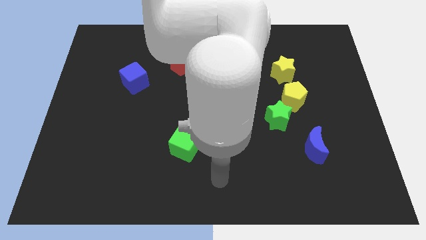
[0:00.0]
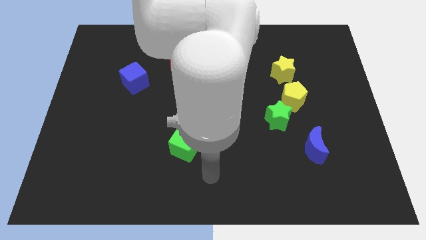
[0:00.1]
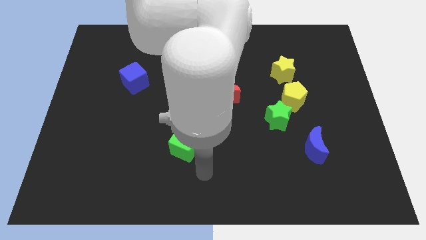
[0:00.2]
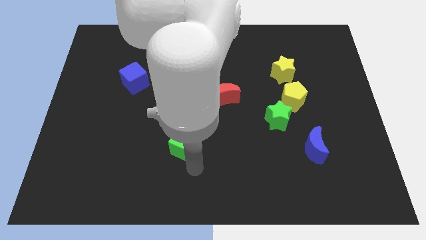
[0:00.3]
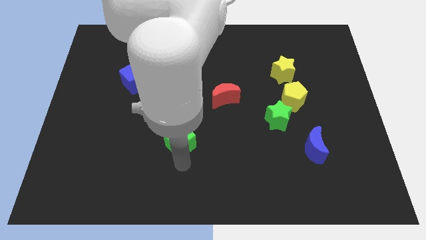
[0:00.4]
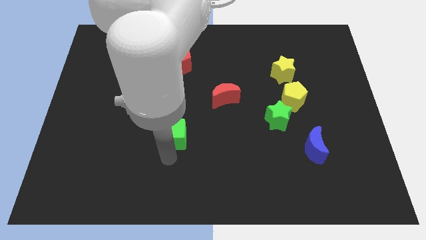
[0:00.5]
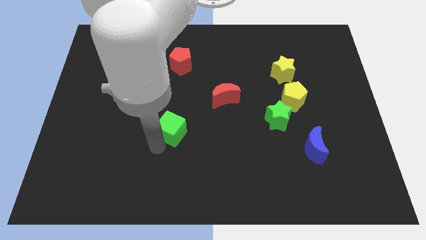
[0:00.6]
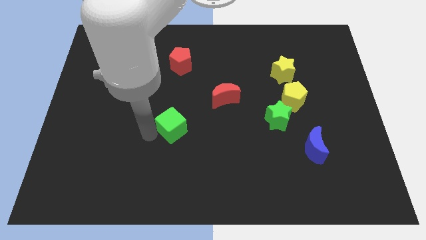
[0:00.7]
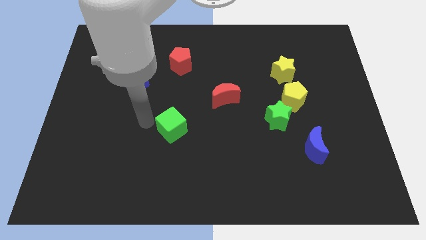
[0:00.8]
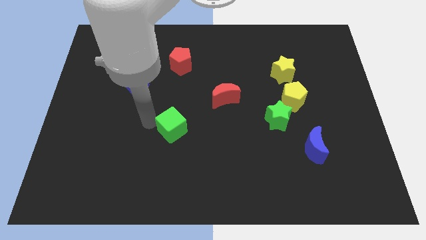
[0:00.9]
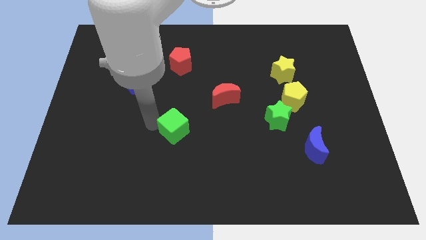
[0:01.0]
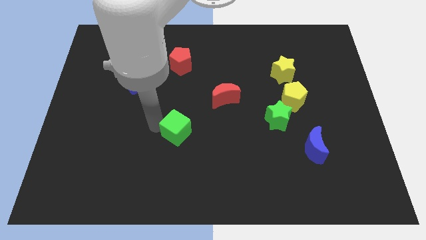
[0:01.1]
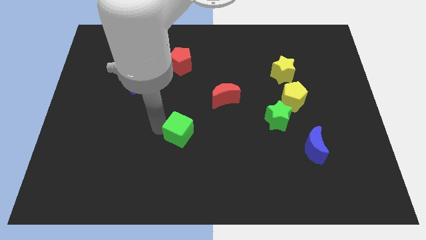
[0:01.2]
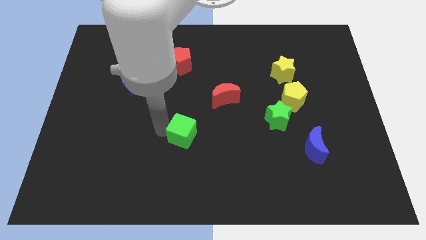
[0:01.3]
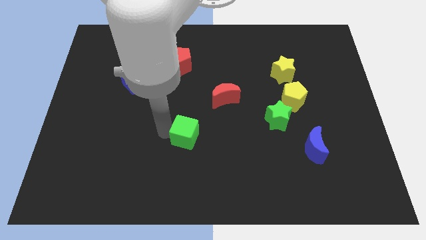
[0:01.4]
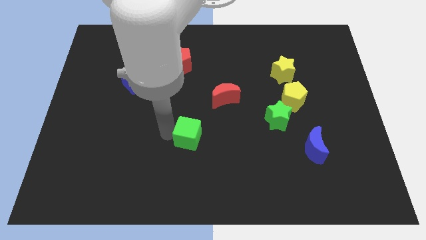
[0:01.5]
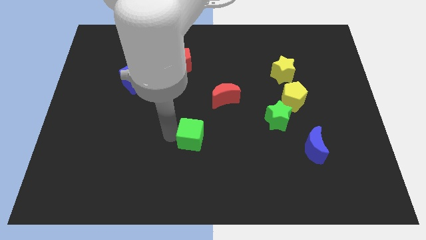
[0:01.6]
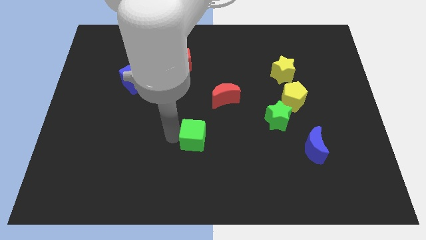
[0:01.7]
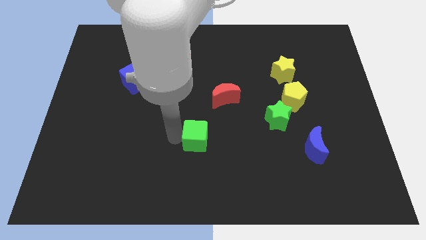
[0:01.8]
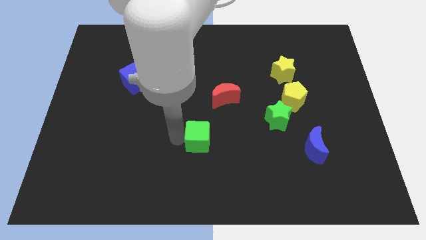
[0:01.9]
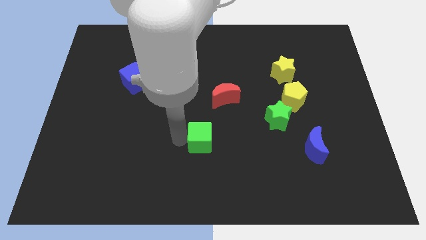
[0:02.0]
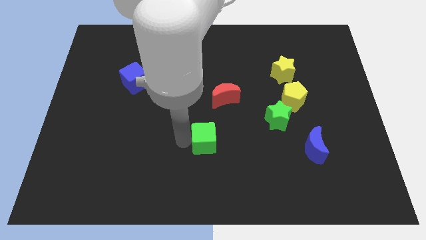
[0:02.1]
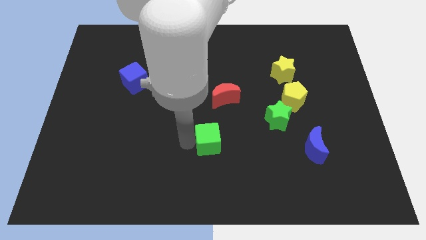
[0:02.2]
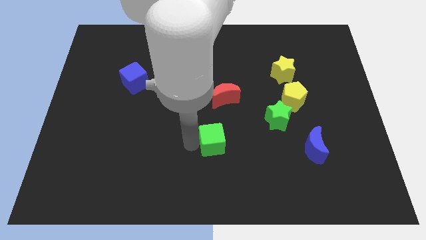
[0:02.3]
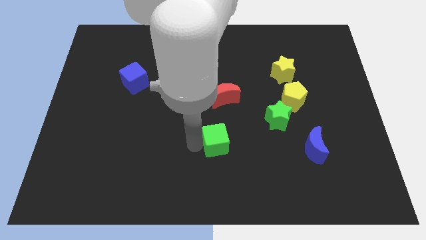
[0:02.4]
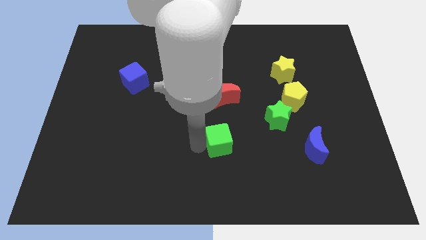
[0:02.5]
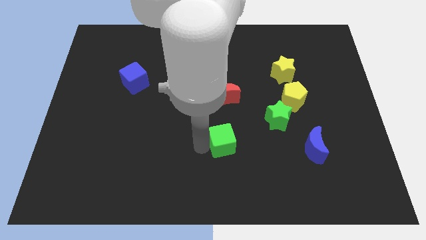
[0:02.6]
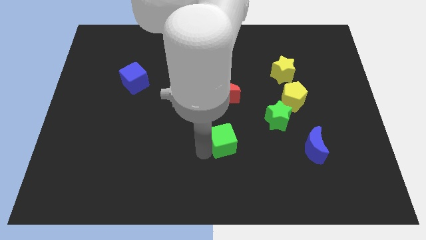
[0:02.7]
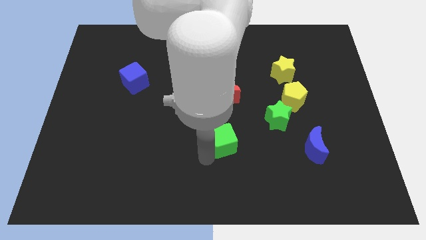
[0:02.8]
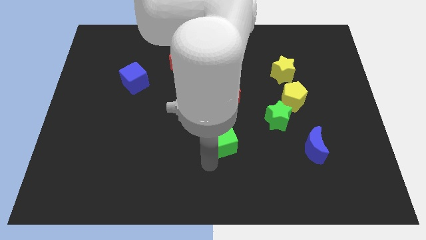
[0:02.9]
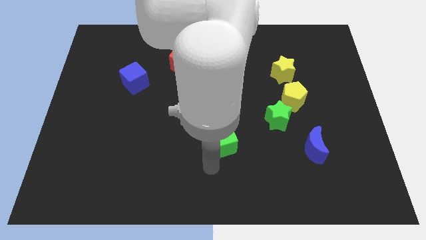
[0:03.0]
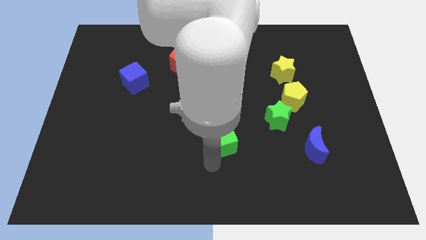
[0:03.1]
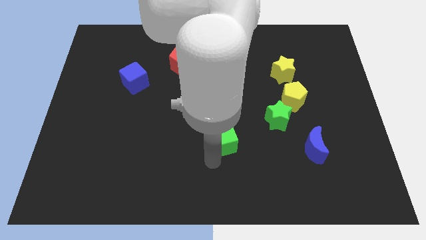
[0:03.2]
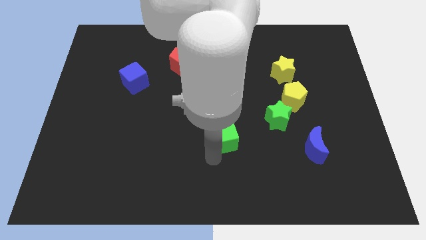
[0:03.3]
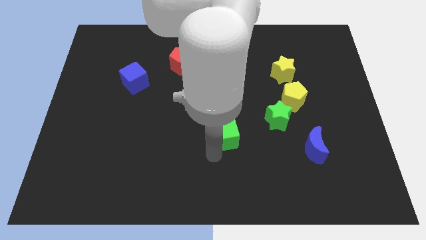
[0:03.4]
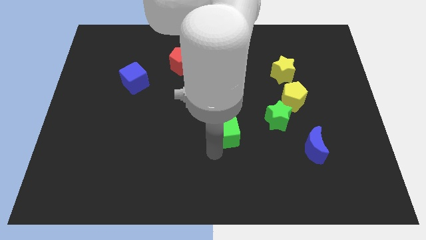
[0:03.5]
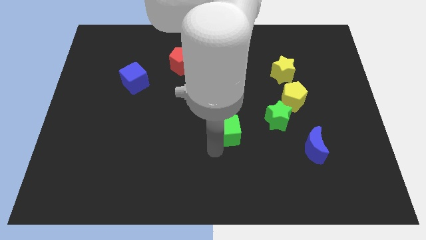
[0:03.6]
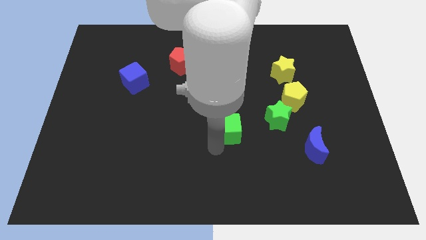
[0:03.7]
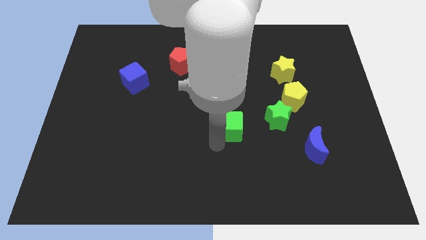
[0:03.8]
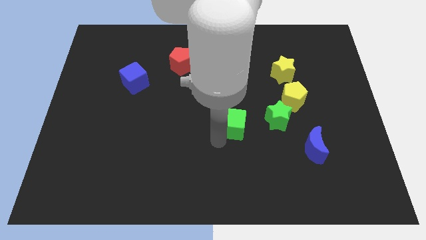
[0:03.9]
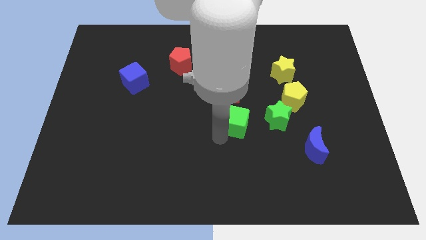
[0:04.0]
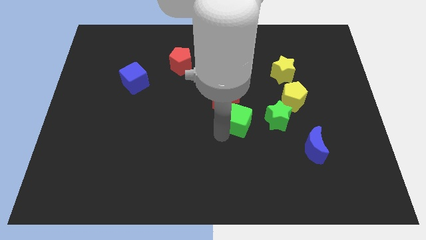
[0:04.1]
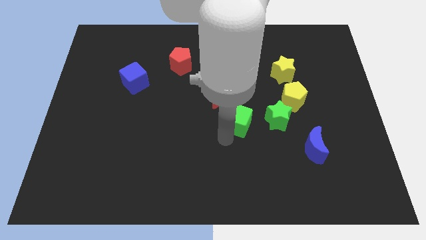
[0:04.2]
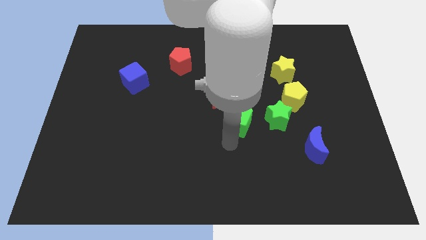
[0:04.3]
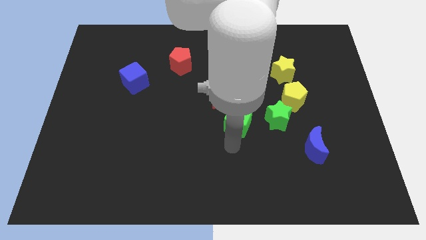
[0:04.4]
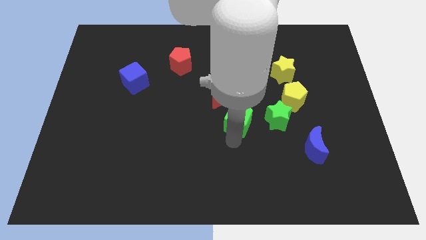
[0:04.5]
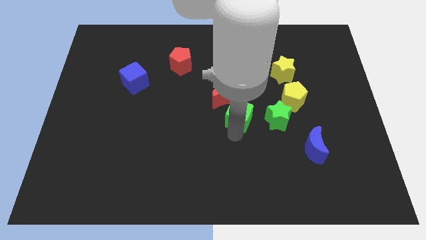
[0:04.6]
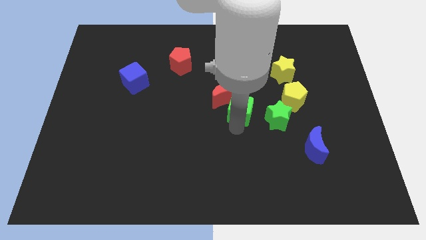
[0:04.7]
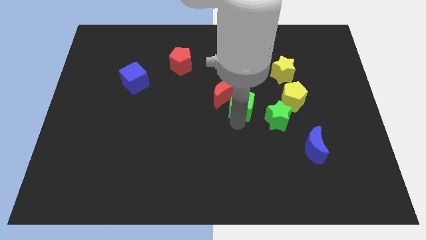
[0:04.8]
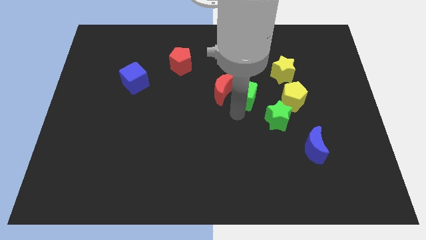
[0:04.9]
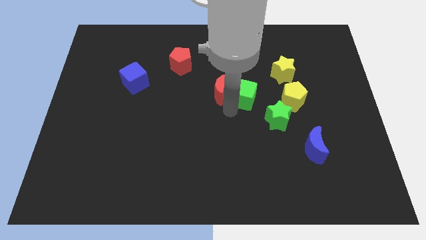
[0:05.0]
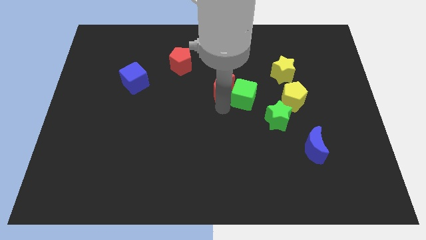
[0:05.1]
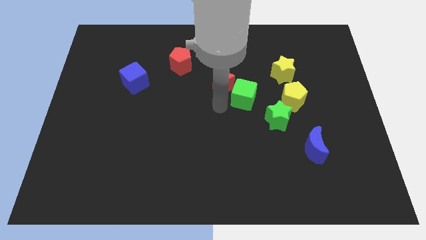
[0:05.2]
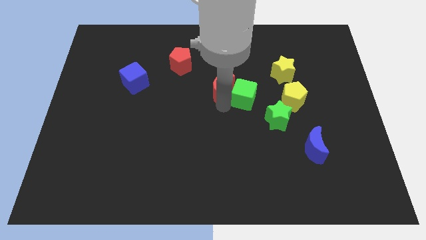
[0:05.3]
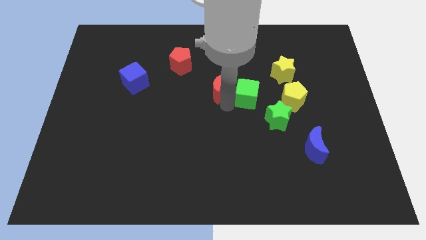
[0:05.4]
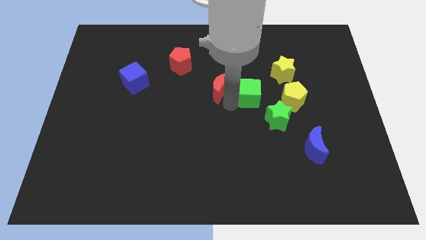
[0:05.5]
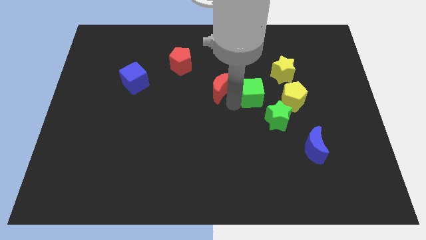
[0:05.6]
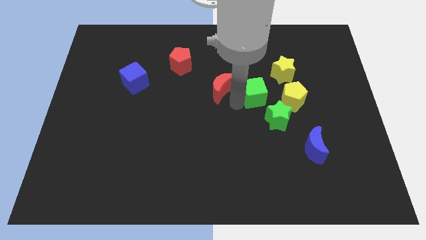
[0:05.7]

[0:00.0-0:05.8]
slide the green cube to the top of the green star

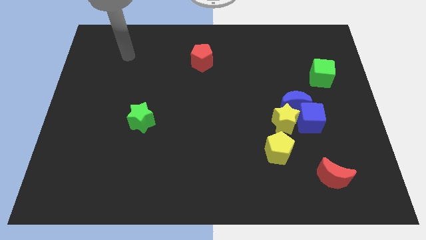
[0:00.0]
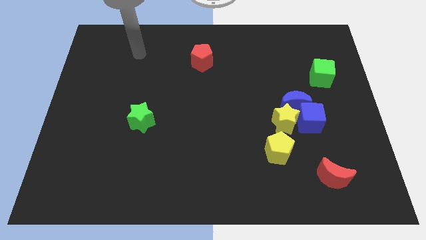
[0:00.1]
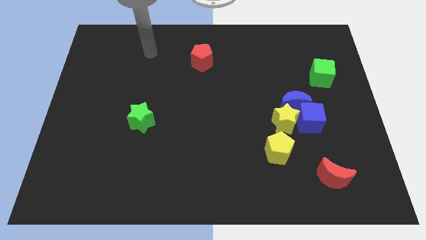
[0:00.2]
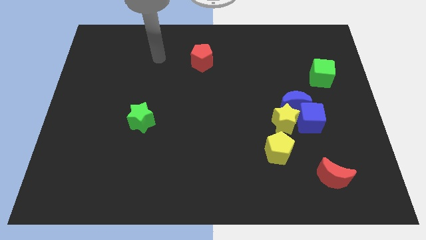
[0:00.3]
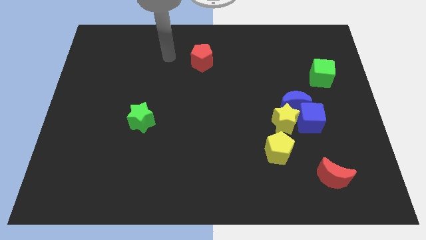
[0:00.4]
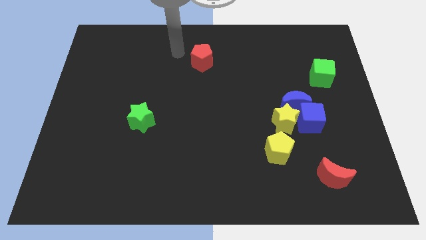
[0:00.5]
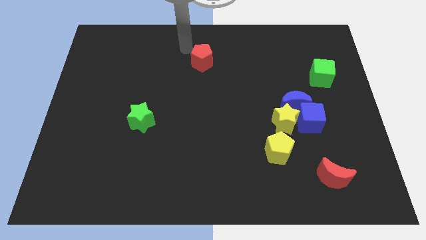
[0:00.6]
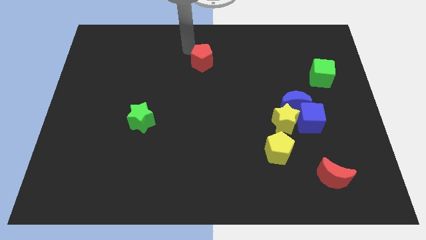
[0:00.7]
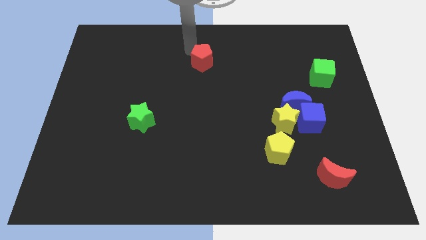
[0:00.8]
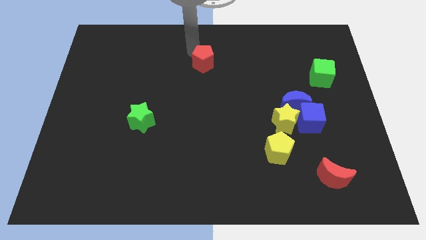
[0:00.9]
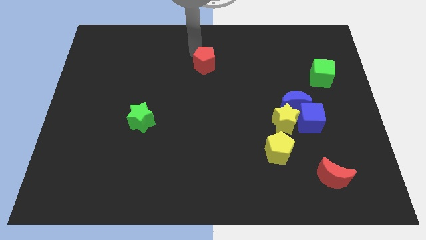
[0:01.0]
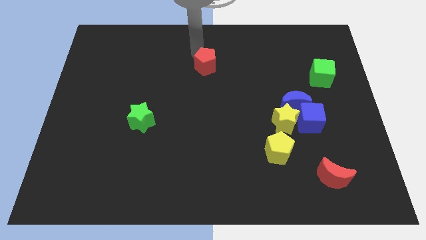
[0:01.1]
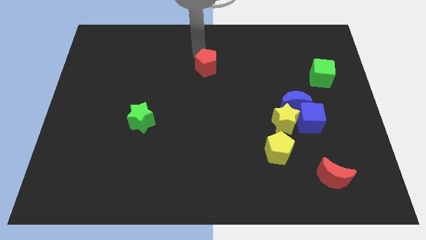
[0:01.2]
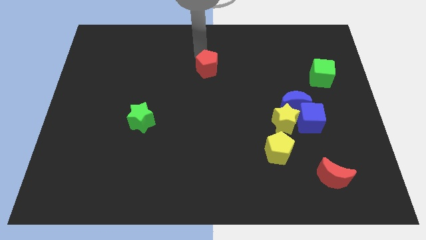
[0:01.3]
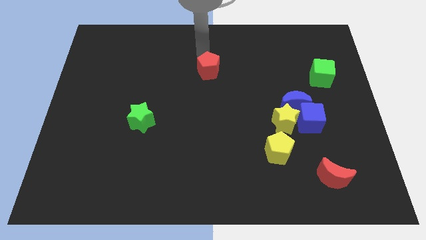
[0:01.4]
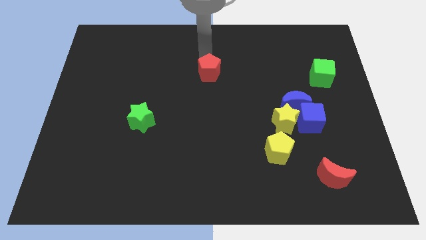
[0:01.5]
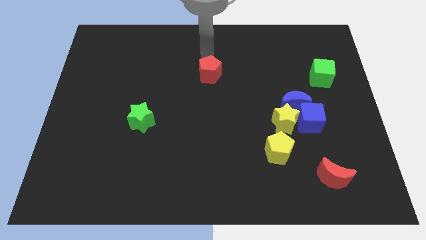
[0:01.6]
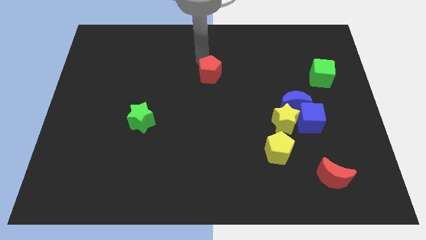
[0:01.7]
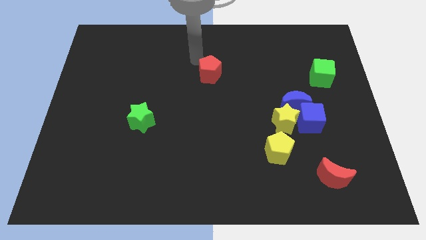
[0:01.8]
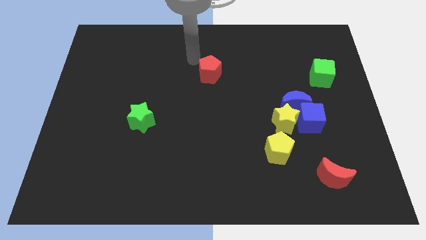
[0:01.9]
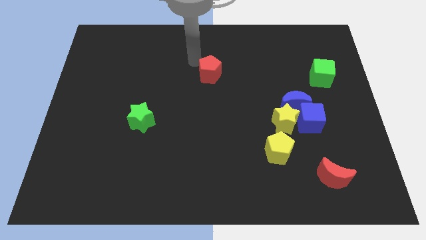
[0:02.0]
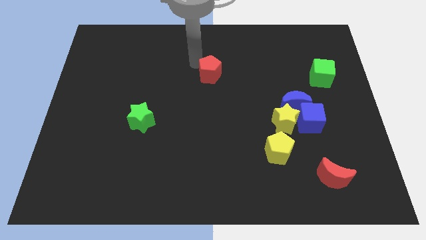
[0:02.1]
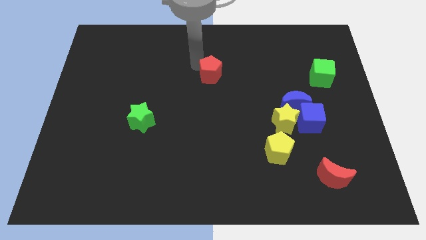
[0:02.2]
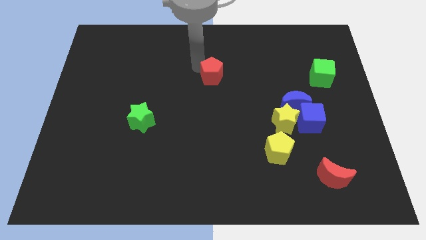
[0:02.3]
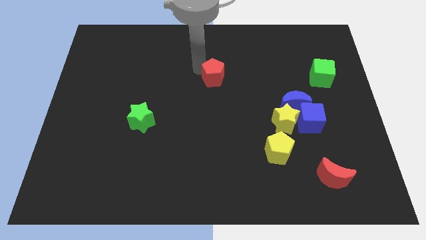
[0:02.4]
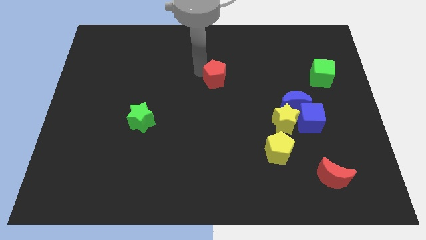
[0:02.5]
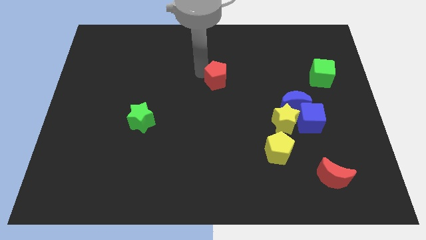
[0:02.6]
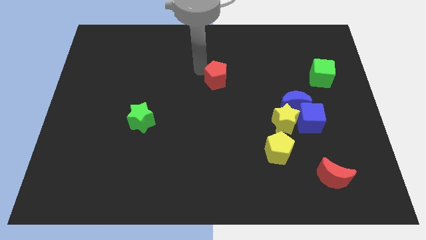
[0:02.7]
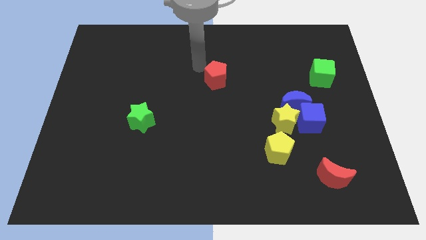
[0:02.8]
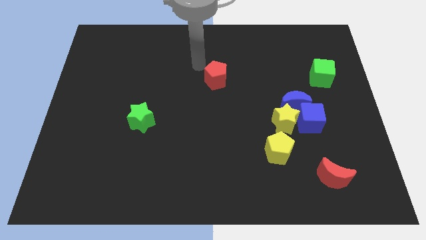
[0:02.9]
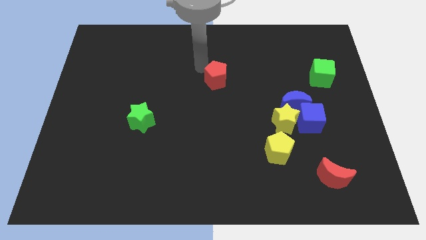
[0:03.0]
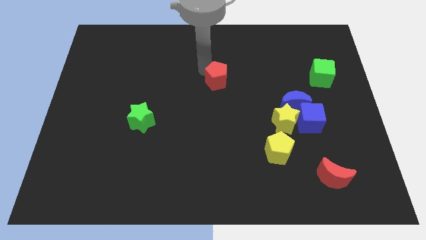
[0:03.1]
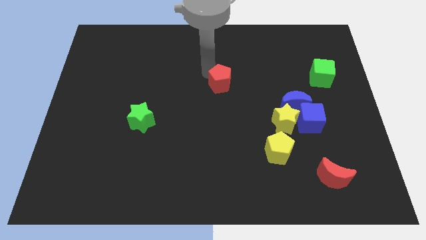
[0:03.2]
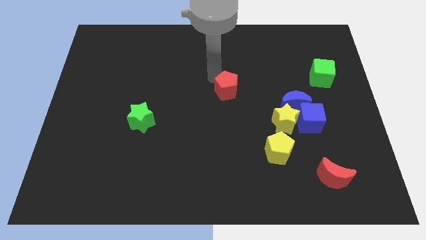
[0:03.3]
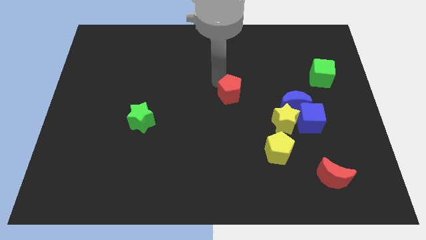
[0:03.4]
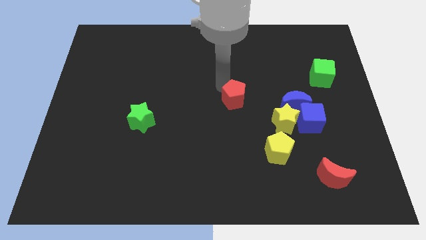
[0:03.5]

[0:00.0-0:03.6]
slide the red pentagon left of the blue moon
